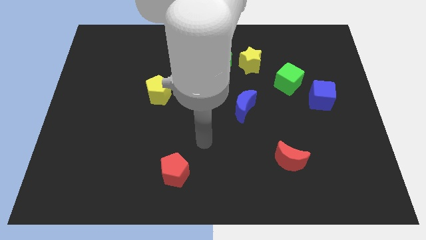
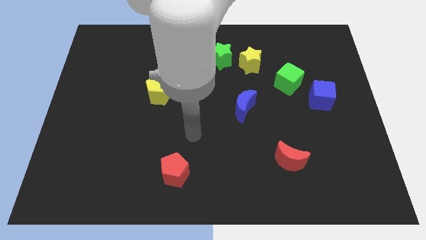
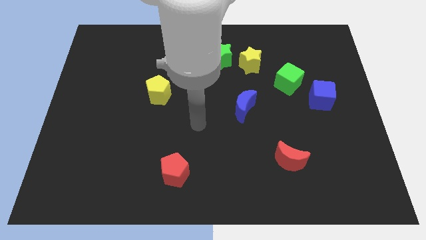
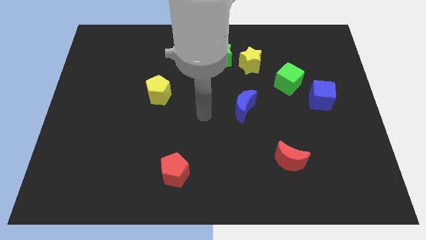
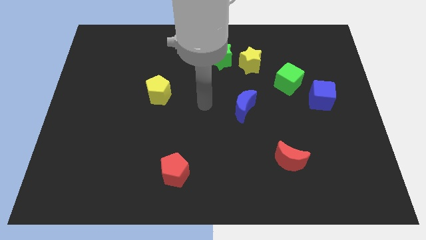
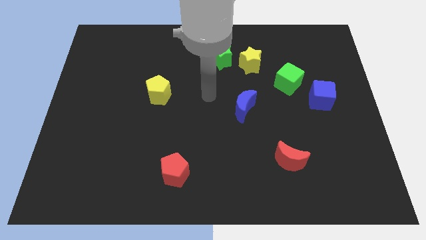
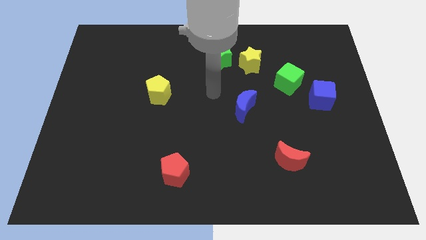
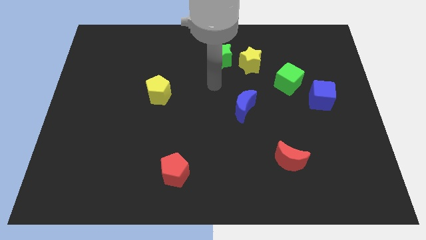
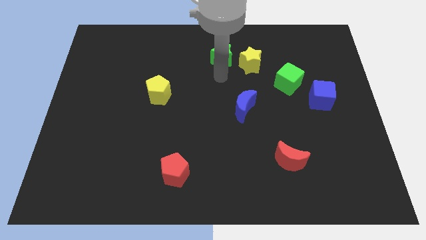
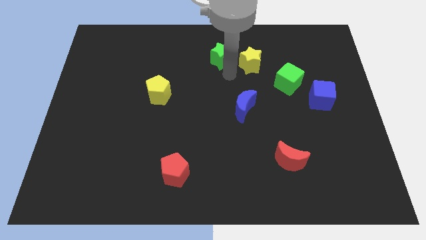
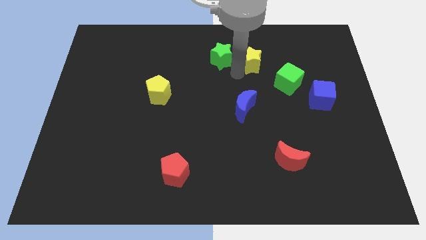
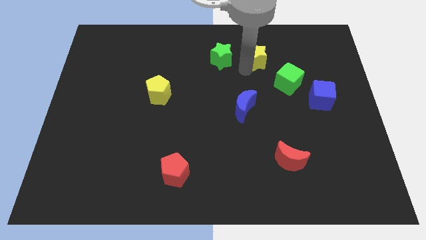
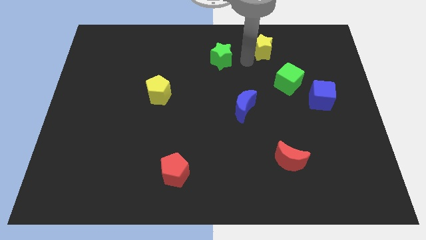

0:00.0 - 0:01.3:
move the green star away from the yellow star

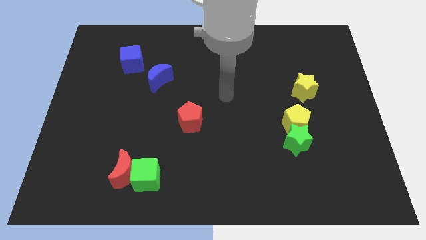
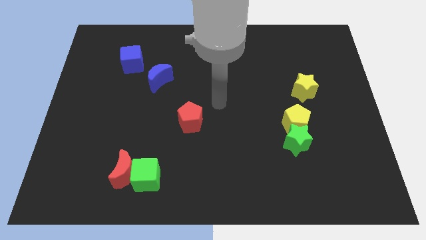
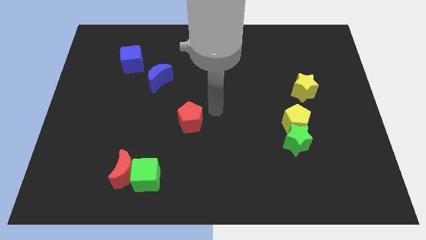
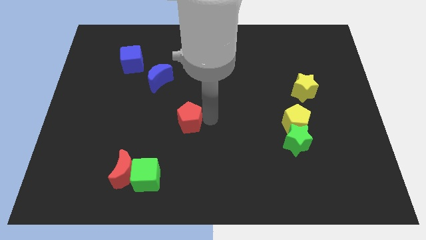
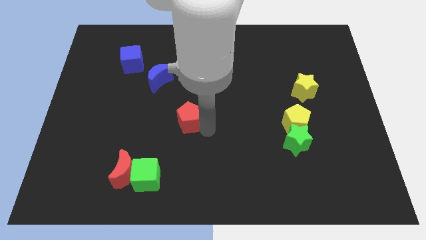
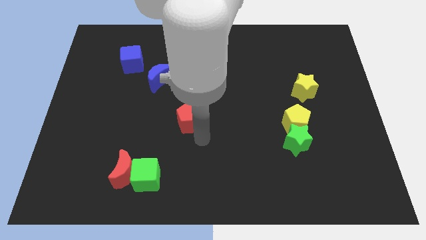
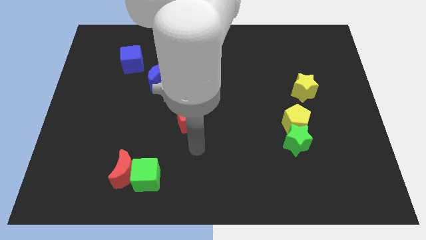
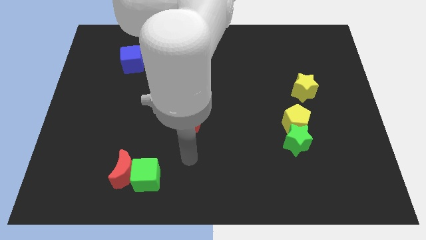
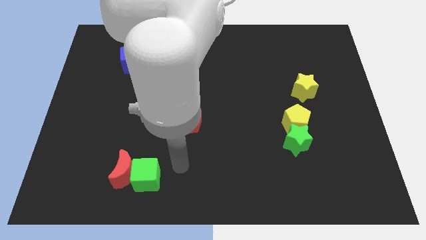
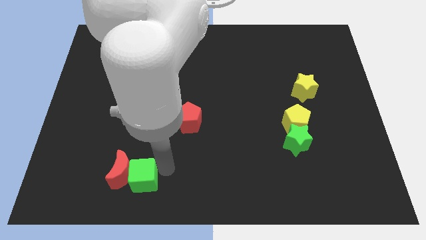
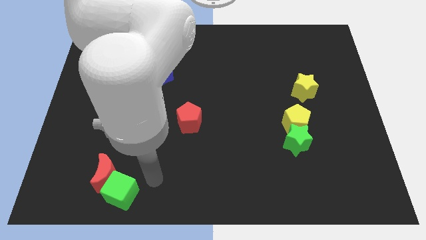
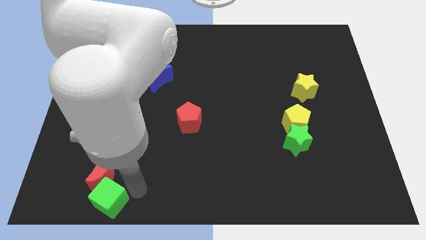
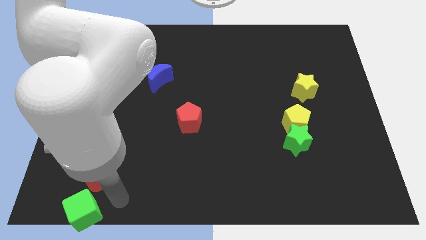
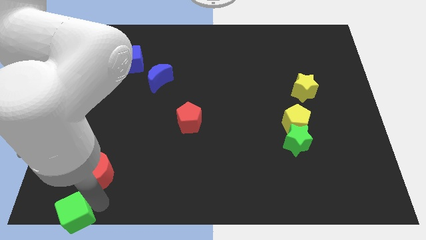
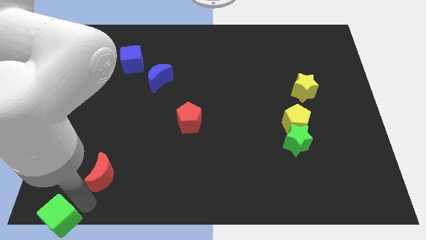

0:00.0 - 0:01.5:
move the red moon away from the green cube

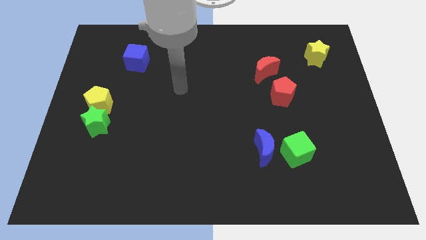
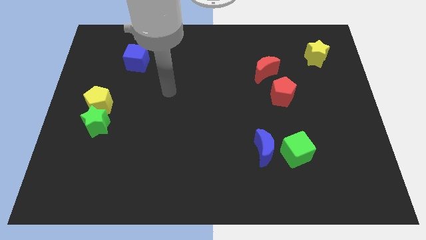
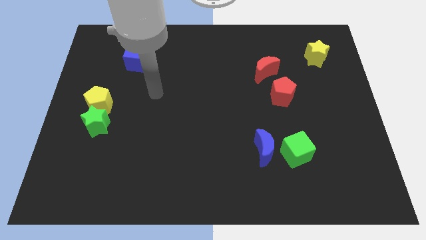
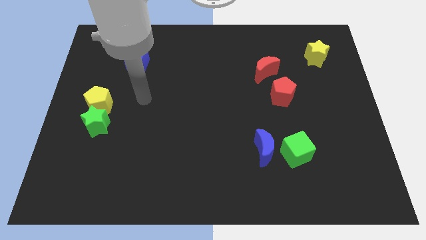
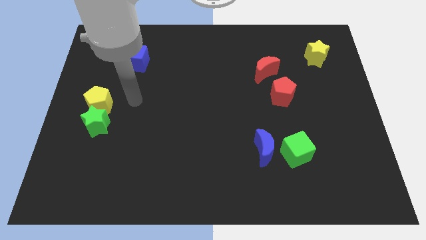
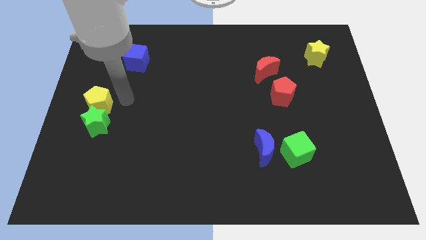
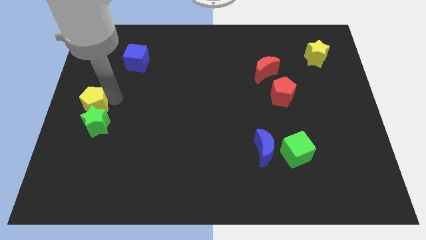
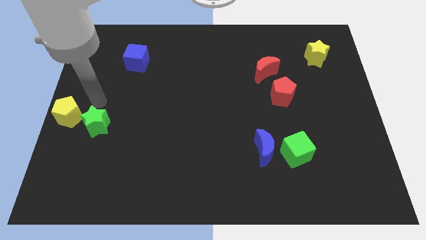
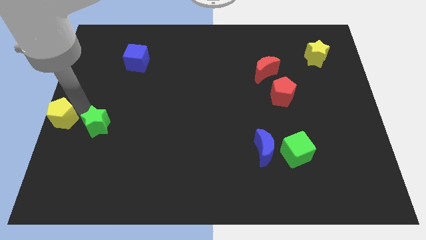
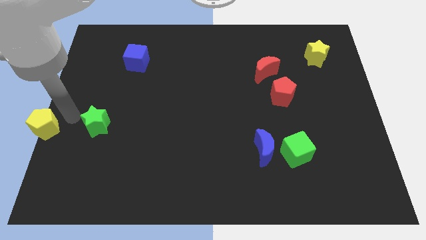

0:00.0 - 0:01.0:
separate the green star from the yellow pentagon

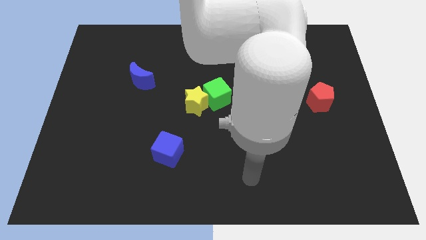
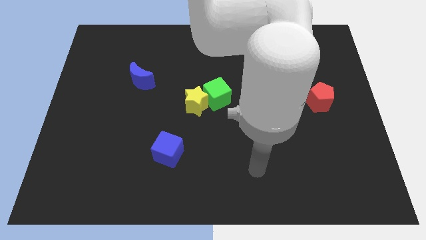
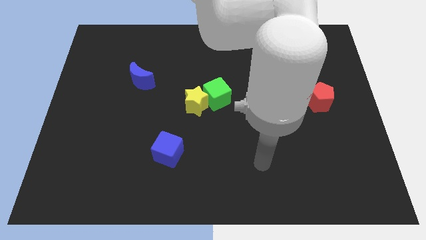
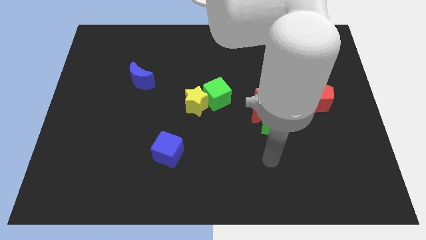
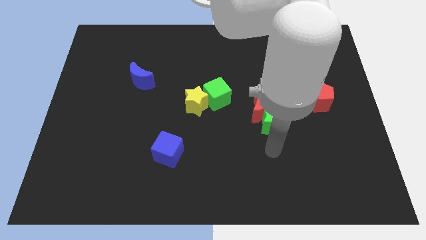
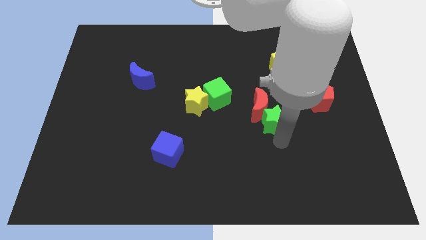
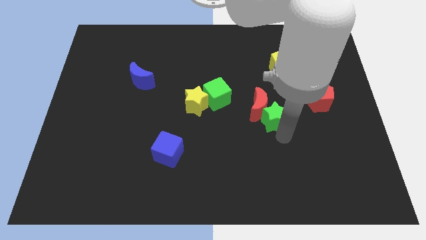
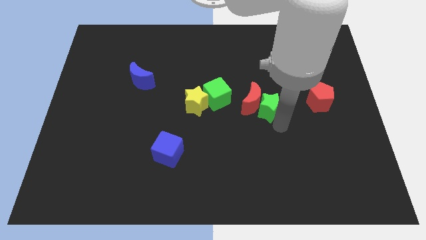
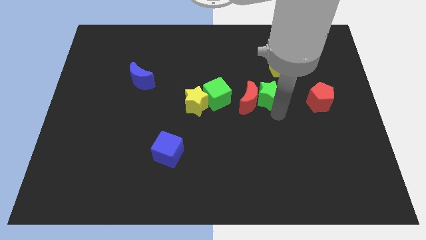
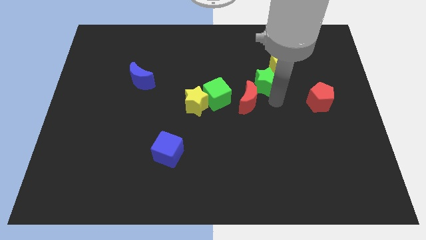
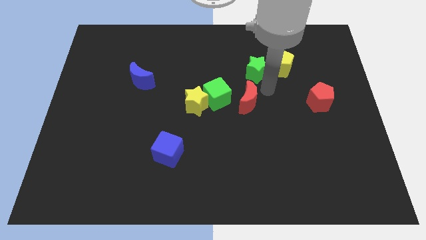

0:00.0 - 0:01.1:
pull the red moon apart from the green star

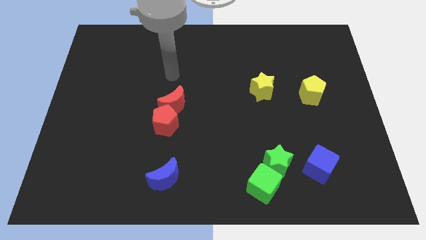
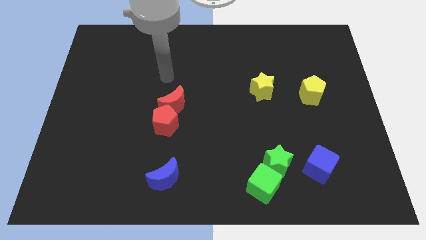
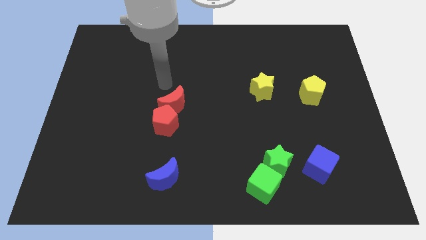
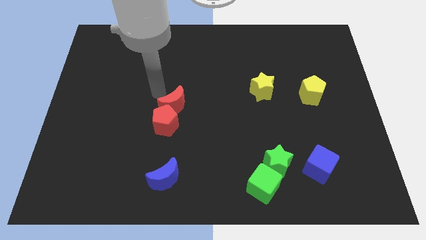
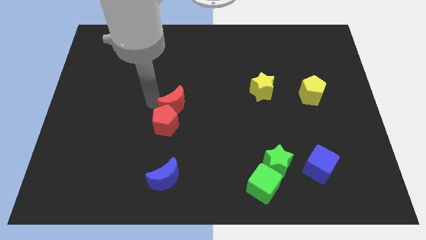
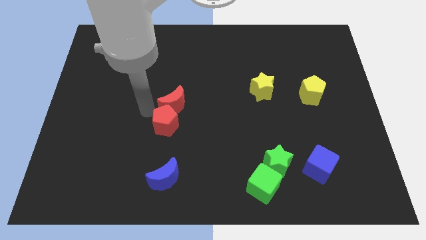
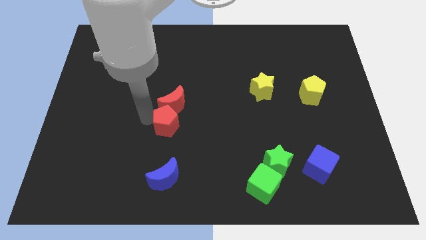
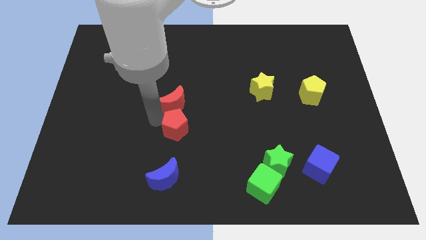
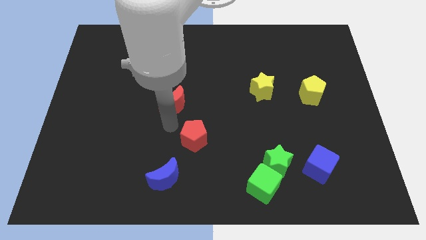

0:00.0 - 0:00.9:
move the red moon away from the red pentagon

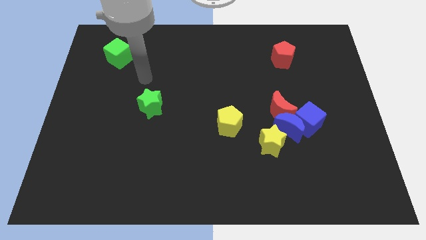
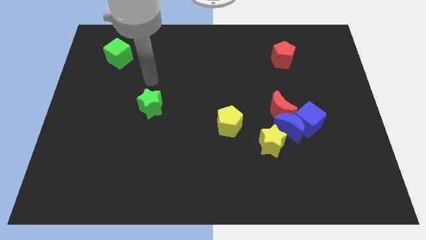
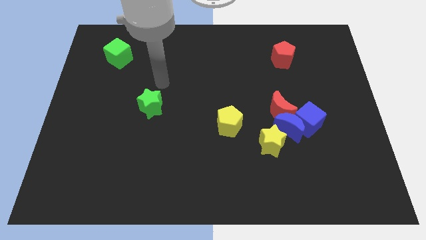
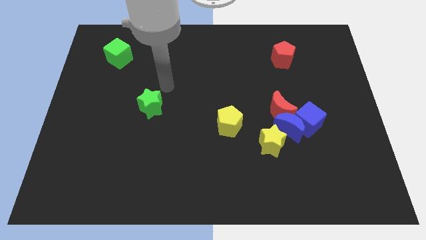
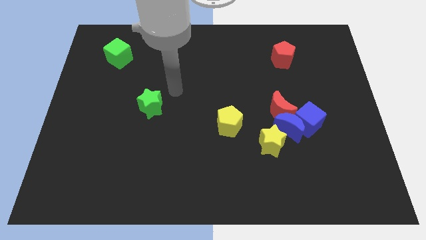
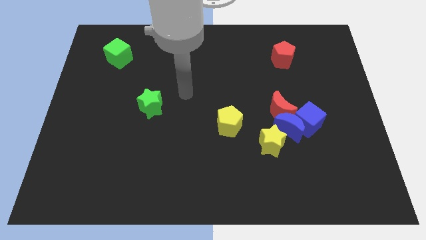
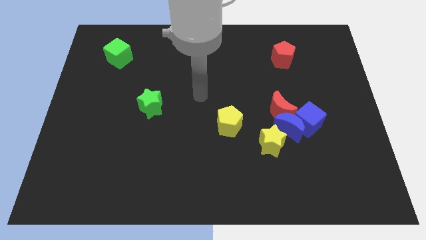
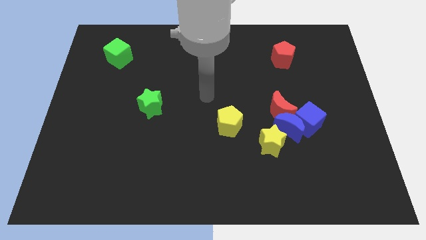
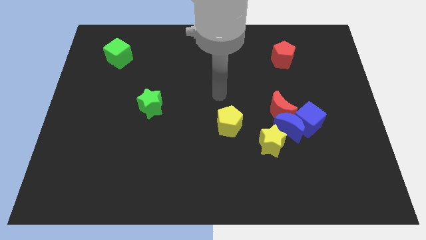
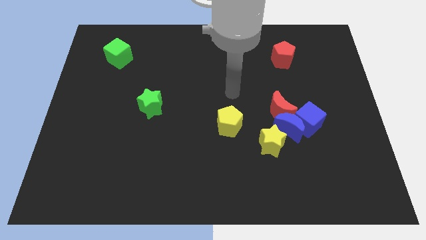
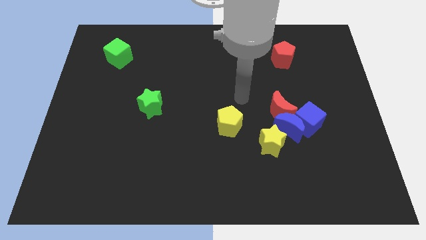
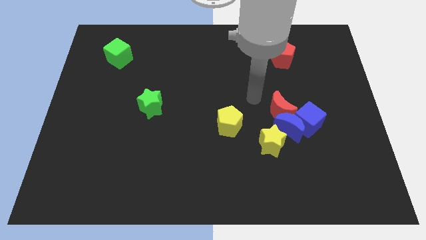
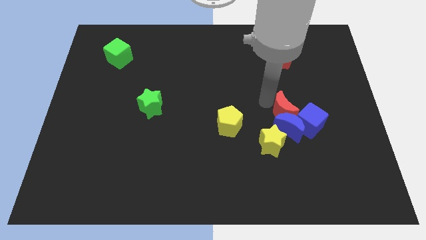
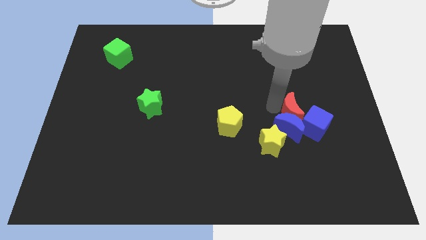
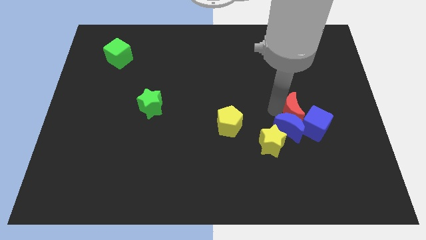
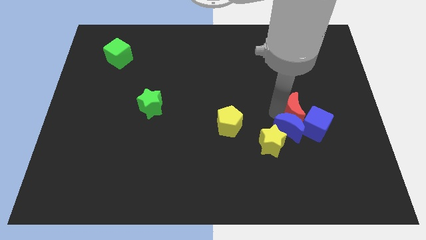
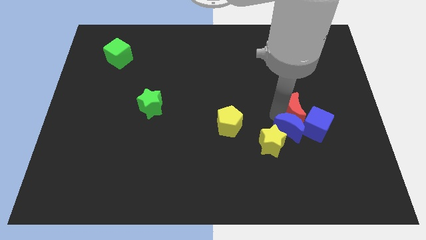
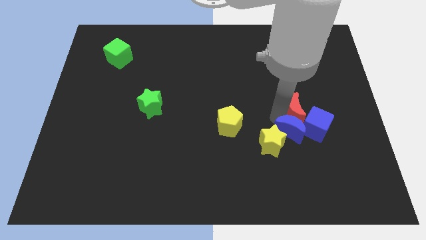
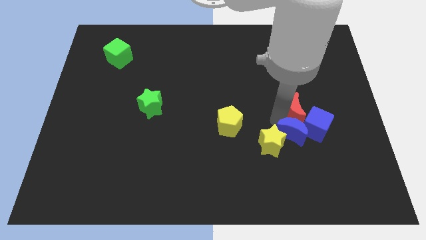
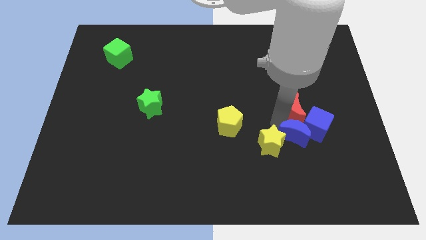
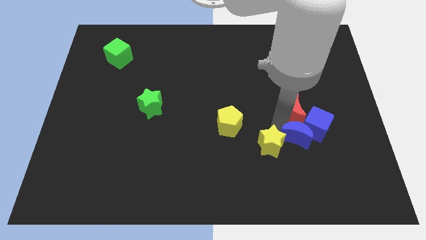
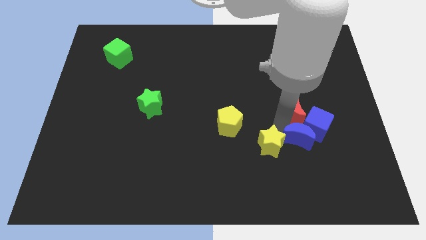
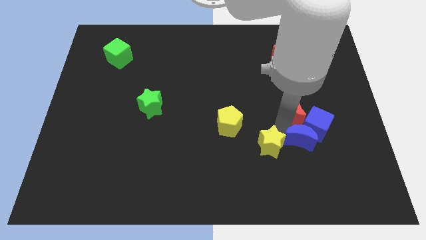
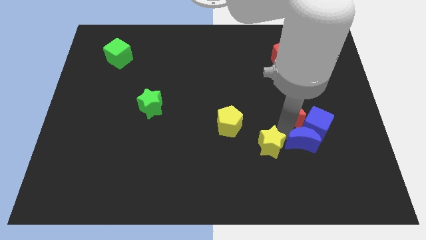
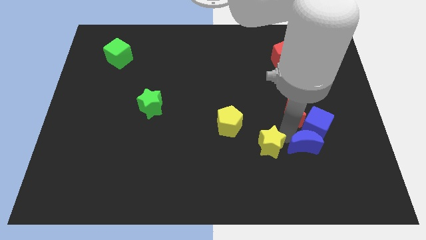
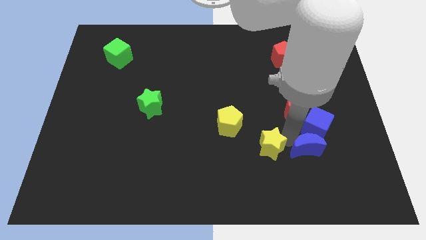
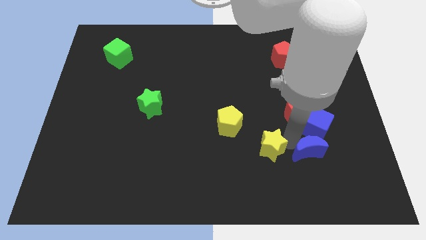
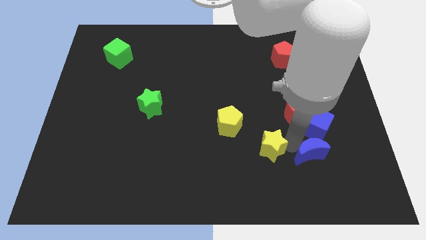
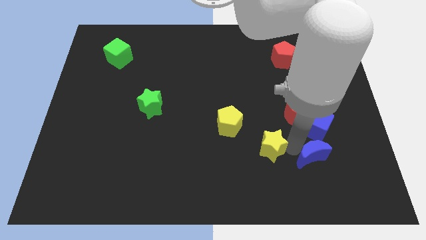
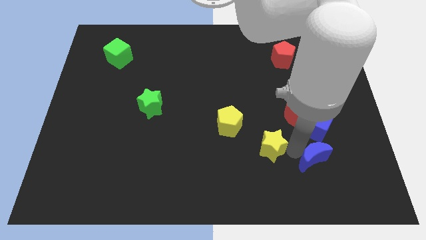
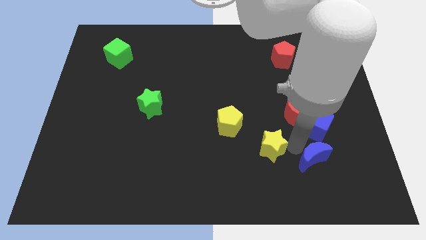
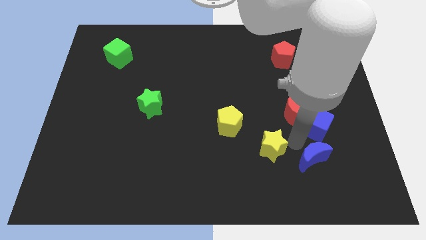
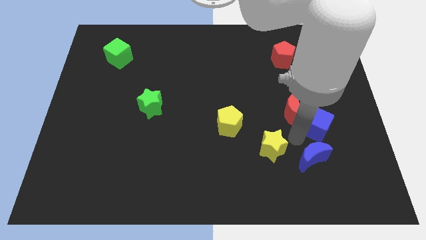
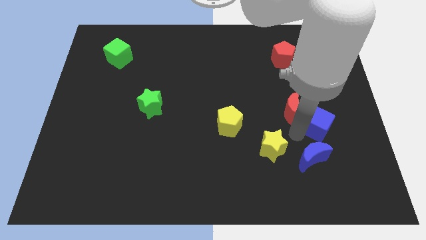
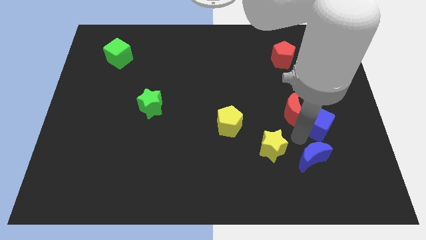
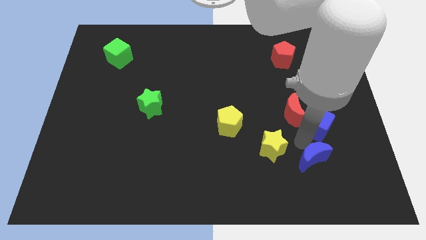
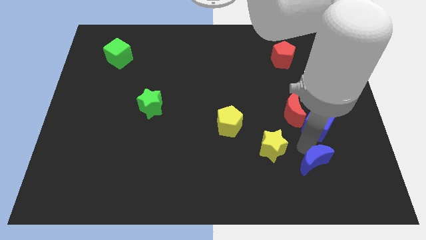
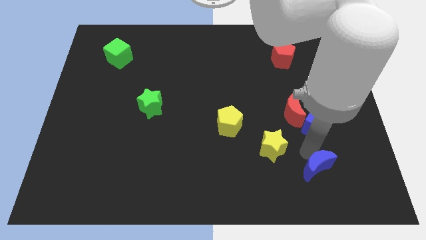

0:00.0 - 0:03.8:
separate the blue moon from the blue cube, red moon, and yellow star
